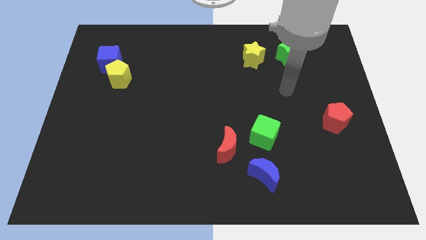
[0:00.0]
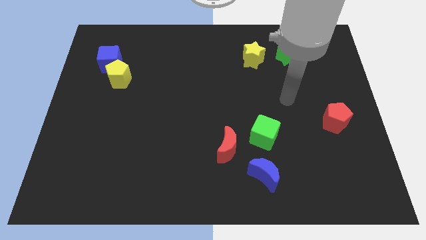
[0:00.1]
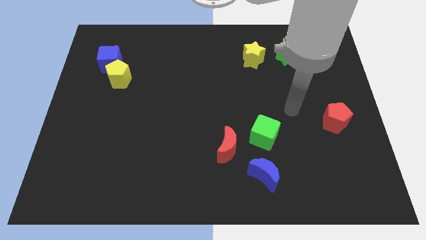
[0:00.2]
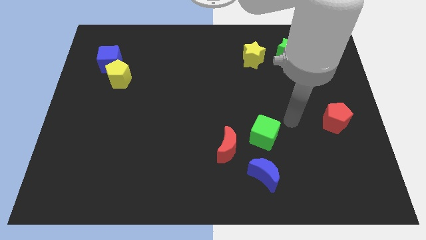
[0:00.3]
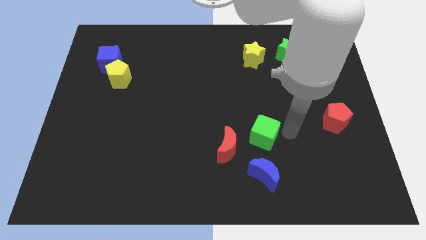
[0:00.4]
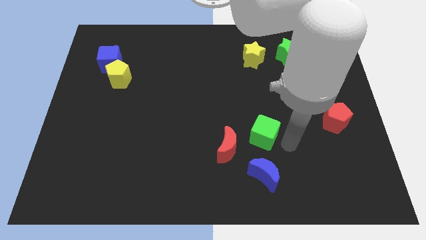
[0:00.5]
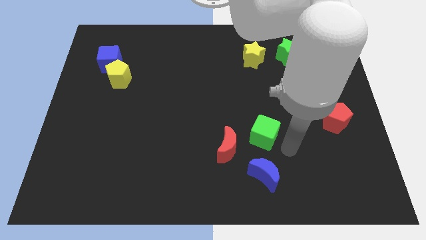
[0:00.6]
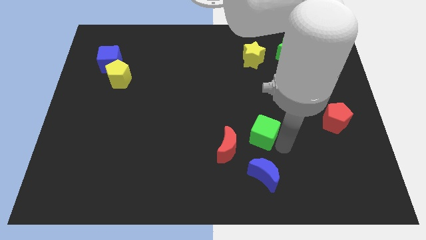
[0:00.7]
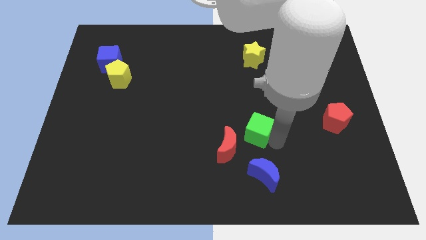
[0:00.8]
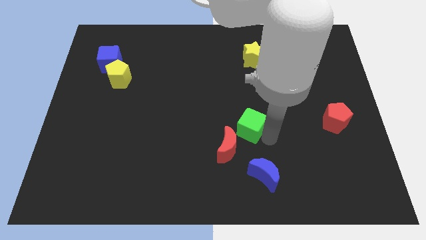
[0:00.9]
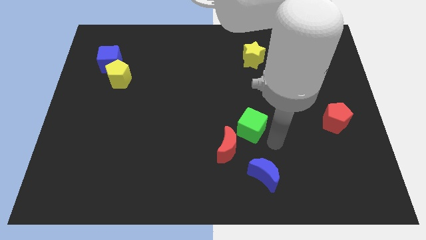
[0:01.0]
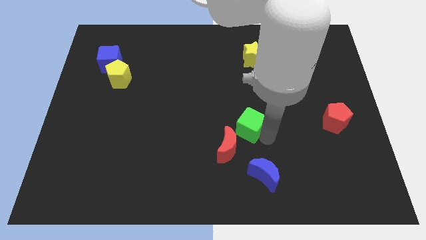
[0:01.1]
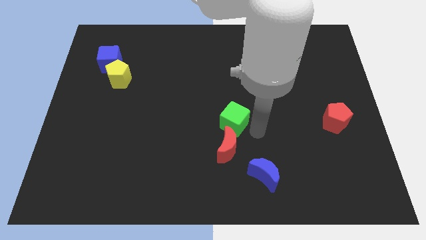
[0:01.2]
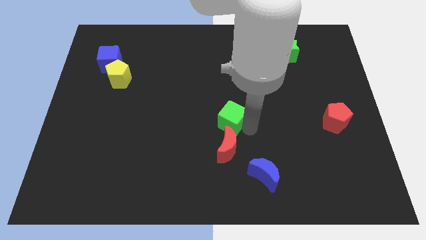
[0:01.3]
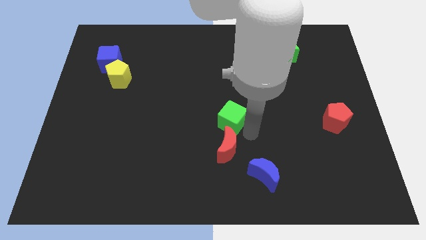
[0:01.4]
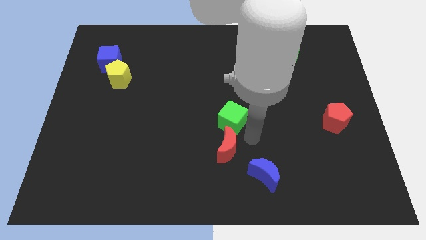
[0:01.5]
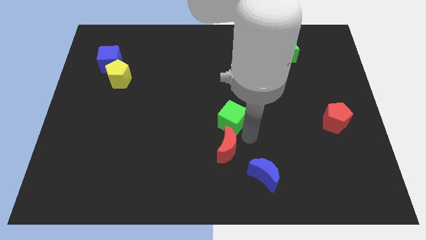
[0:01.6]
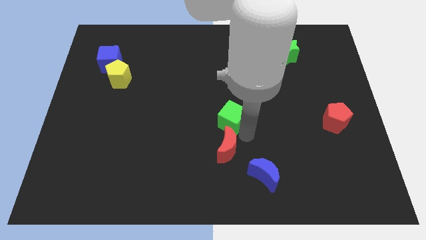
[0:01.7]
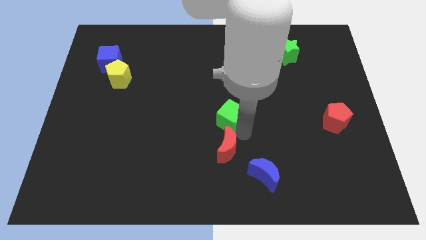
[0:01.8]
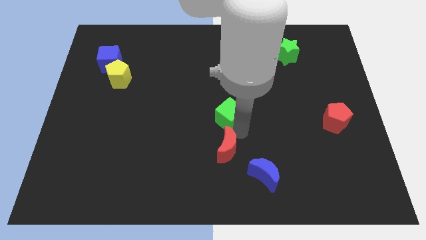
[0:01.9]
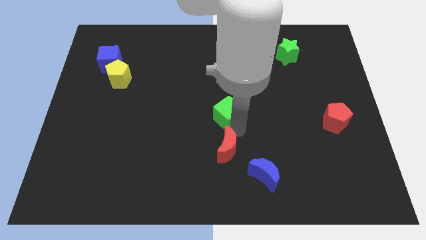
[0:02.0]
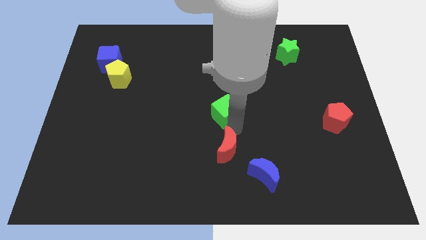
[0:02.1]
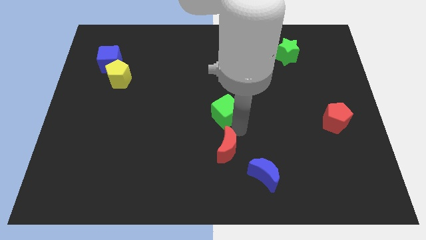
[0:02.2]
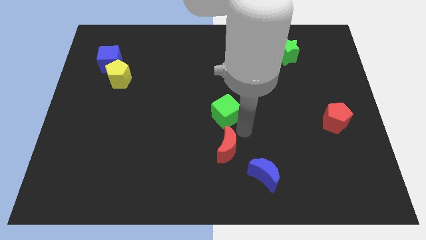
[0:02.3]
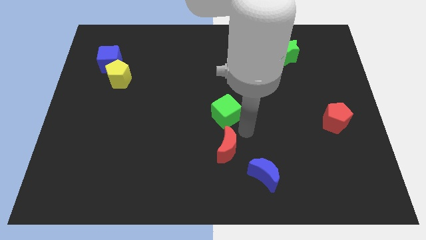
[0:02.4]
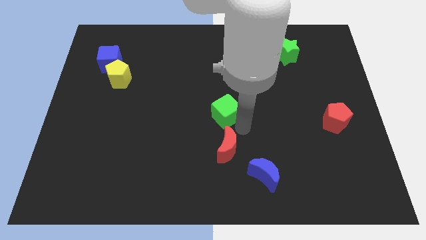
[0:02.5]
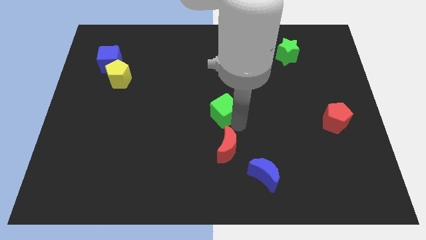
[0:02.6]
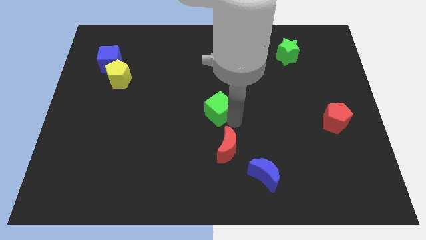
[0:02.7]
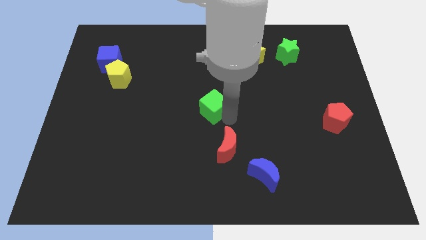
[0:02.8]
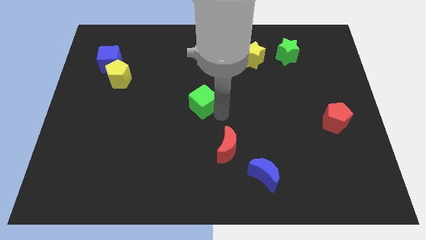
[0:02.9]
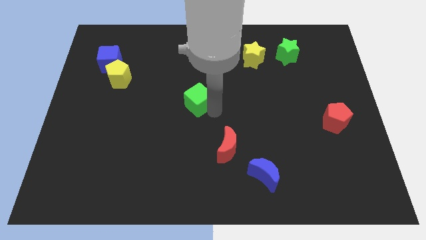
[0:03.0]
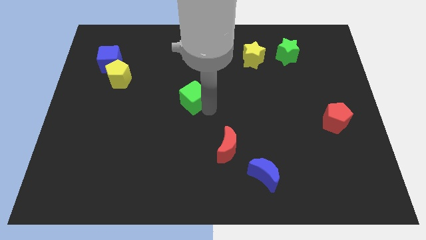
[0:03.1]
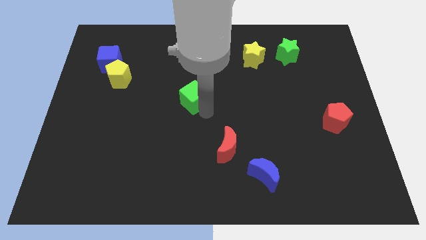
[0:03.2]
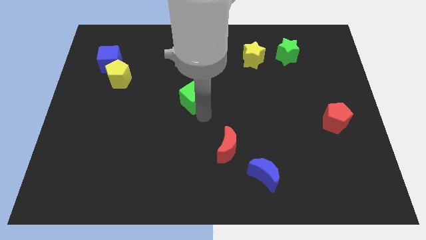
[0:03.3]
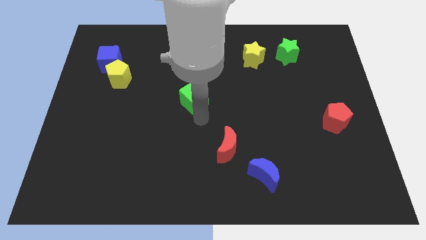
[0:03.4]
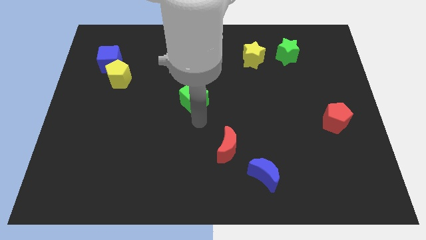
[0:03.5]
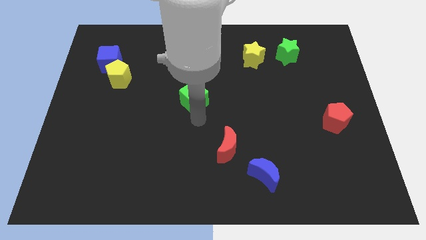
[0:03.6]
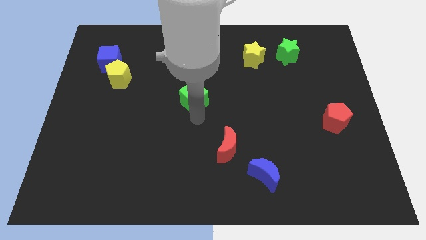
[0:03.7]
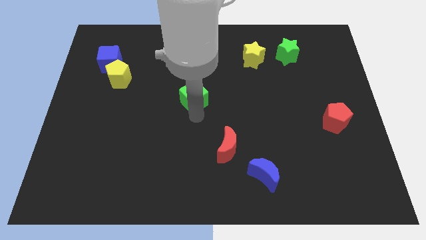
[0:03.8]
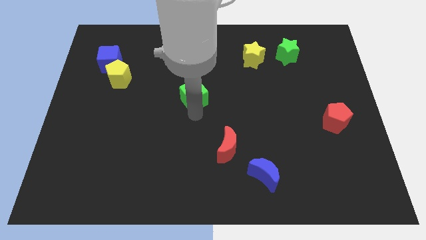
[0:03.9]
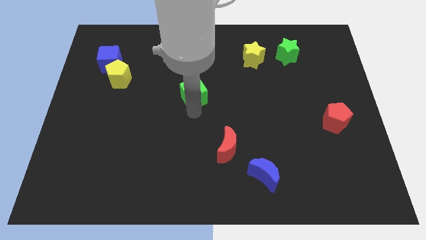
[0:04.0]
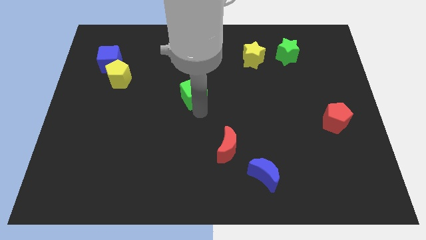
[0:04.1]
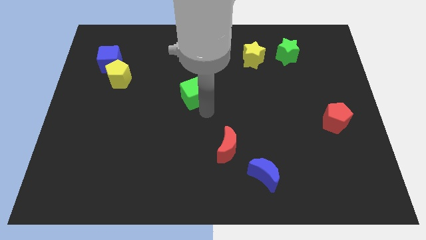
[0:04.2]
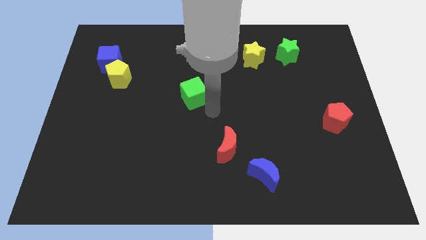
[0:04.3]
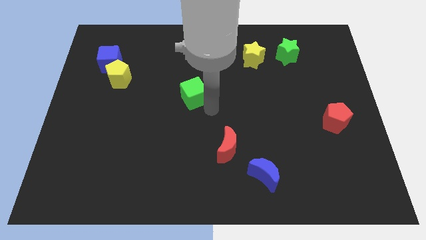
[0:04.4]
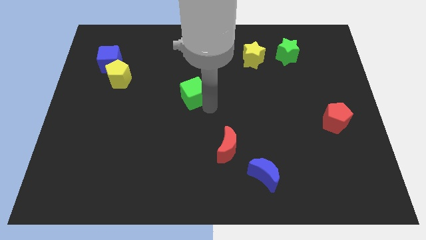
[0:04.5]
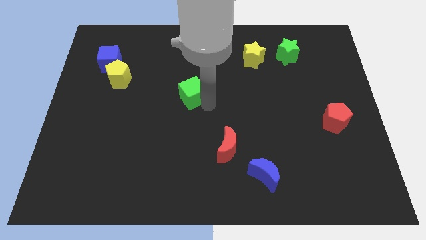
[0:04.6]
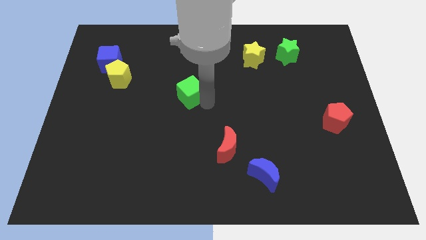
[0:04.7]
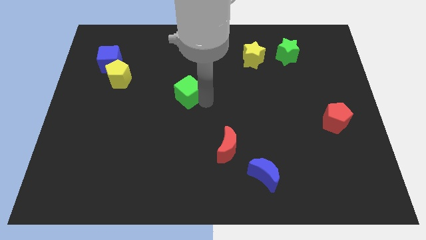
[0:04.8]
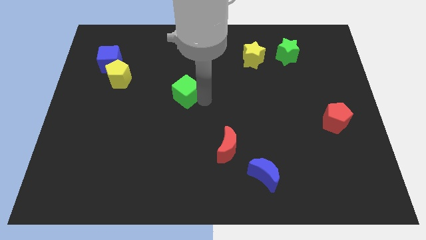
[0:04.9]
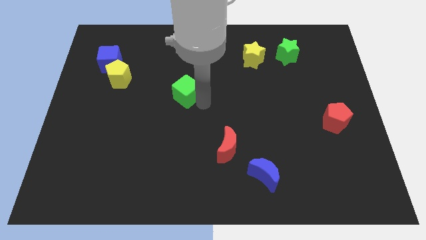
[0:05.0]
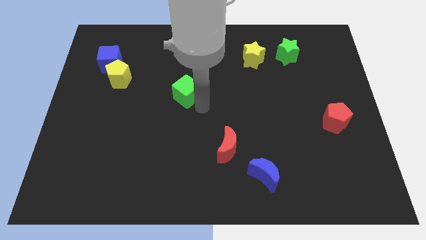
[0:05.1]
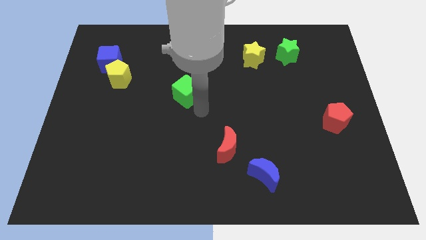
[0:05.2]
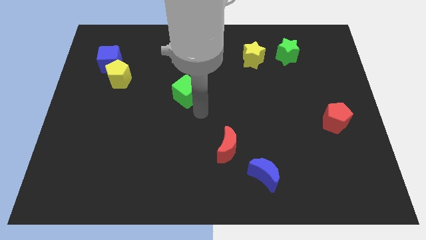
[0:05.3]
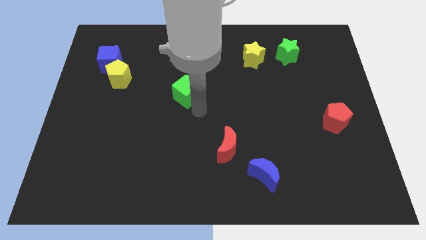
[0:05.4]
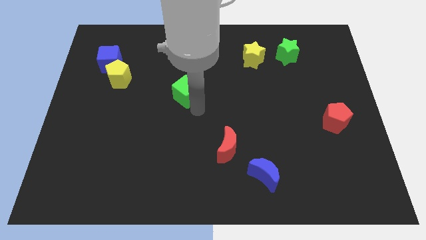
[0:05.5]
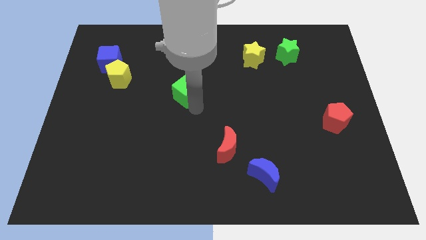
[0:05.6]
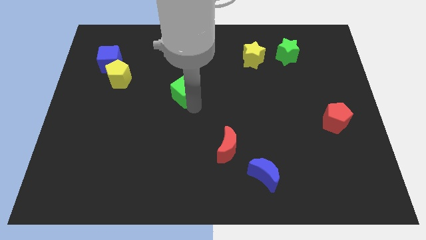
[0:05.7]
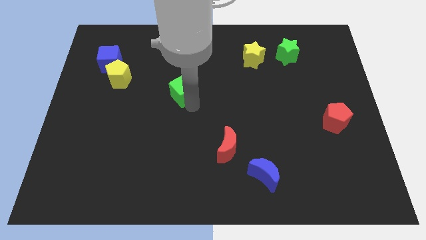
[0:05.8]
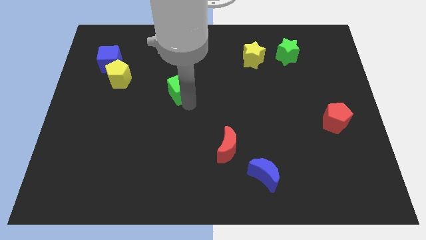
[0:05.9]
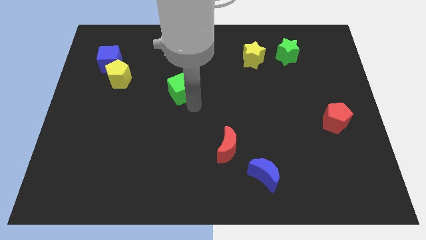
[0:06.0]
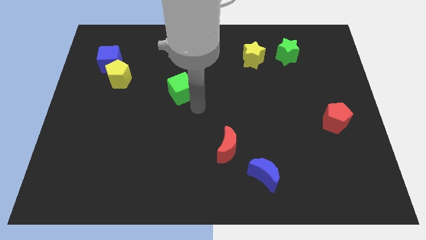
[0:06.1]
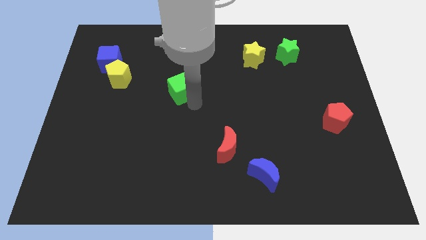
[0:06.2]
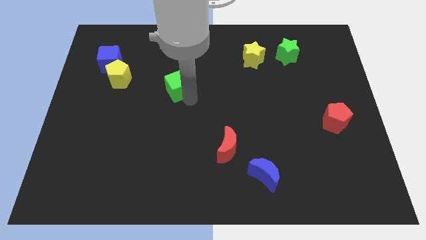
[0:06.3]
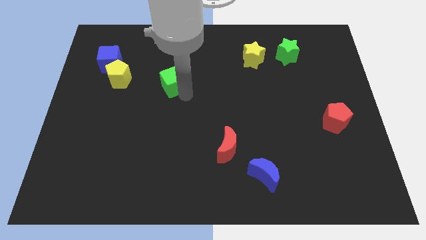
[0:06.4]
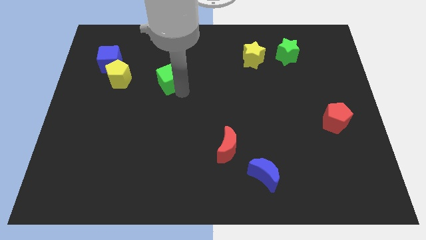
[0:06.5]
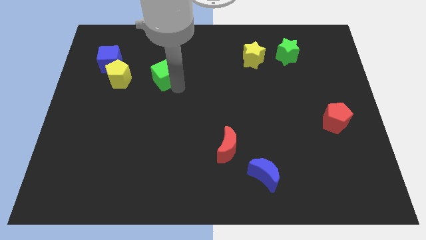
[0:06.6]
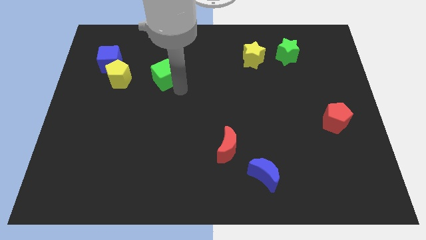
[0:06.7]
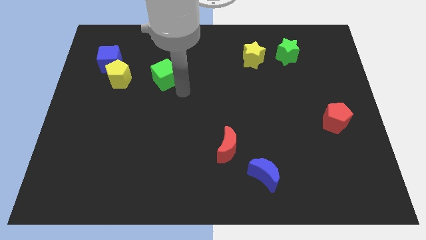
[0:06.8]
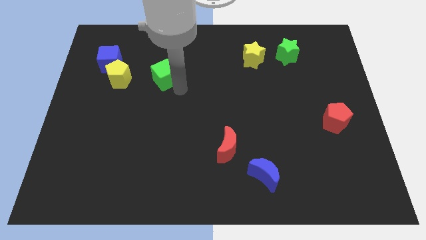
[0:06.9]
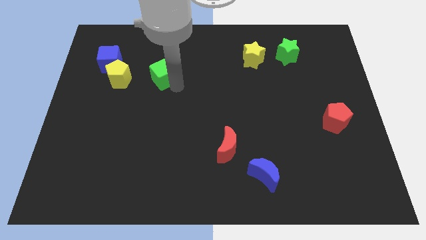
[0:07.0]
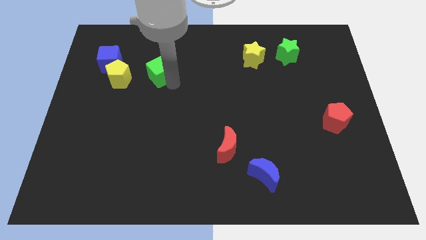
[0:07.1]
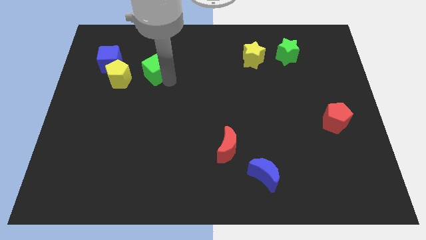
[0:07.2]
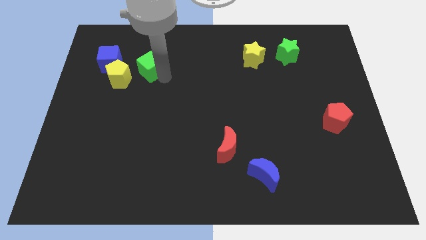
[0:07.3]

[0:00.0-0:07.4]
put the green cube diagonally up and to the right of the yellow pentagon
